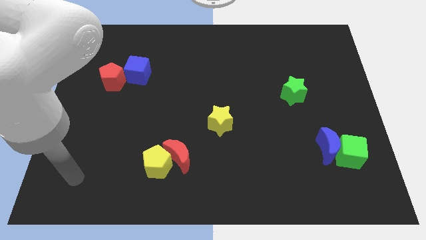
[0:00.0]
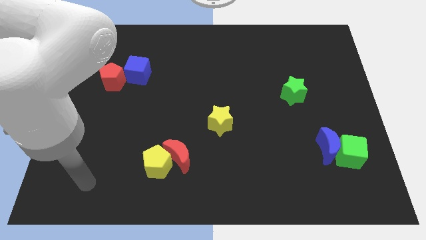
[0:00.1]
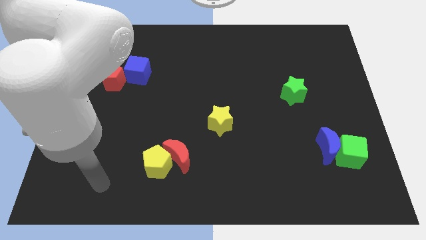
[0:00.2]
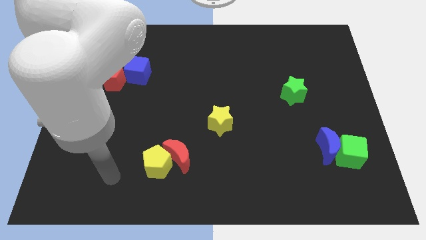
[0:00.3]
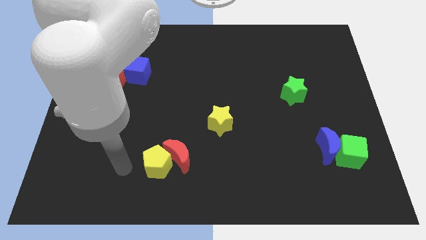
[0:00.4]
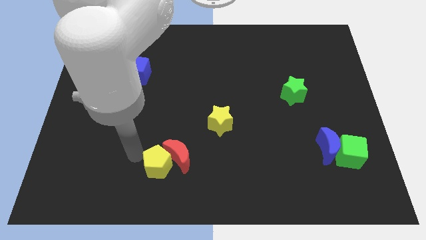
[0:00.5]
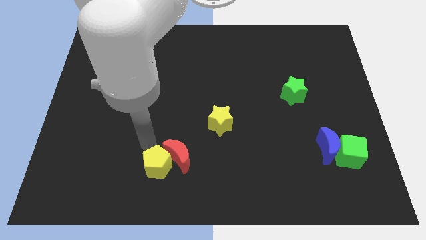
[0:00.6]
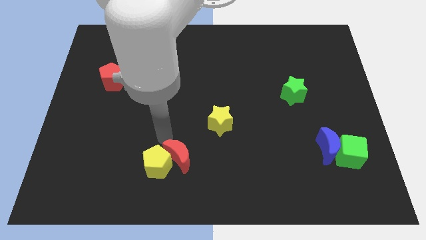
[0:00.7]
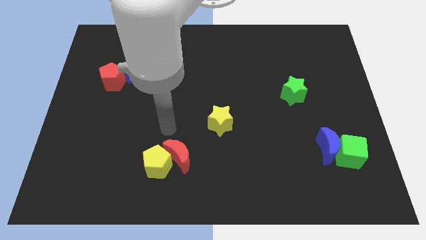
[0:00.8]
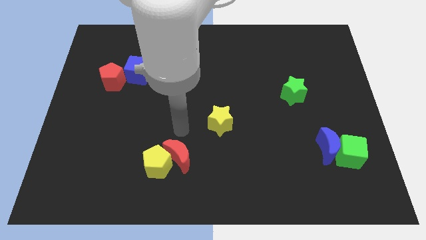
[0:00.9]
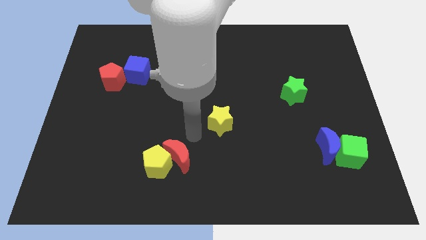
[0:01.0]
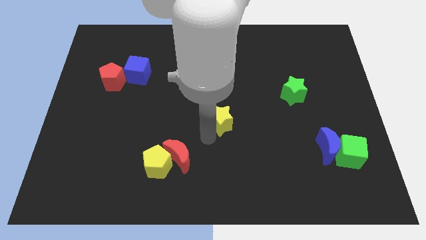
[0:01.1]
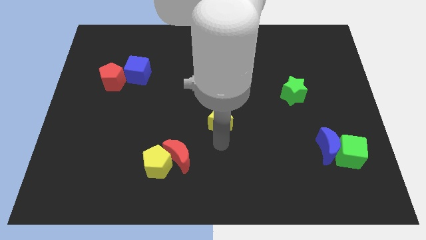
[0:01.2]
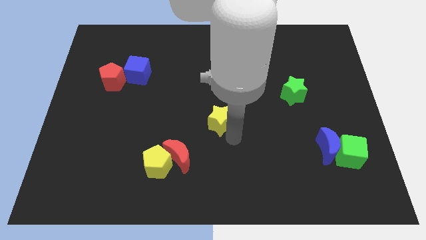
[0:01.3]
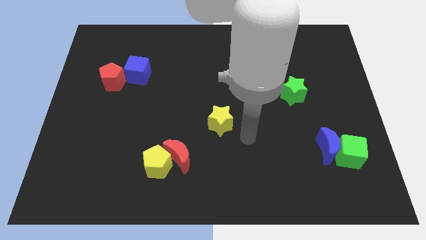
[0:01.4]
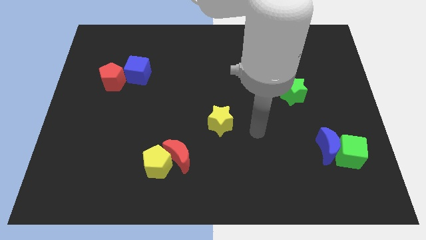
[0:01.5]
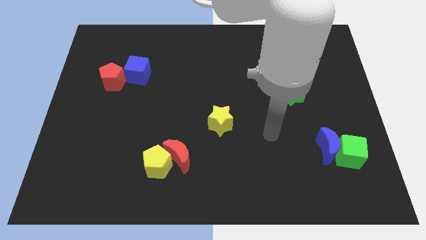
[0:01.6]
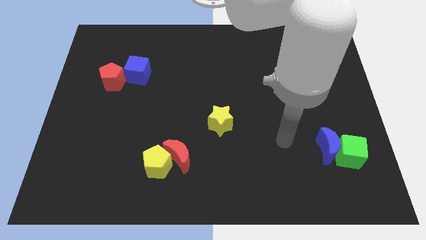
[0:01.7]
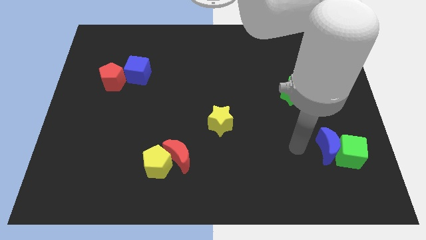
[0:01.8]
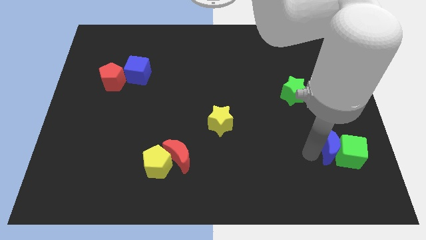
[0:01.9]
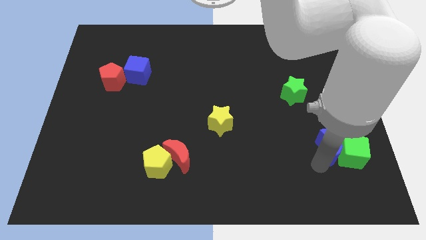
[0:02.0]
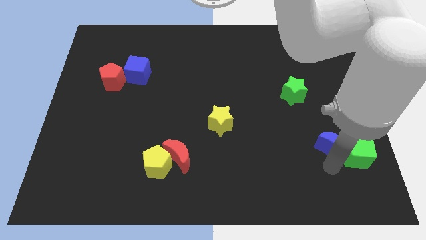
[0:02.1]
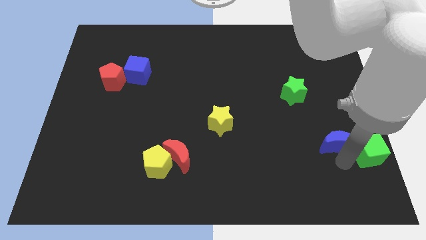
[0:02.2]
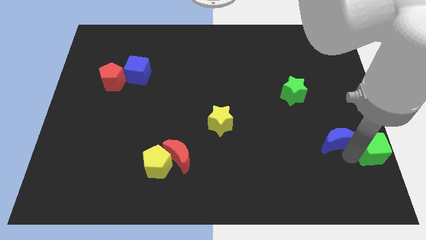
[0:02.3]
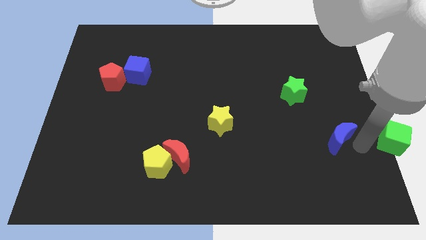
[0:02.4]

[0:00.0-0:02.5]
pull the blue moon apart from the green cube

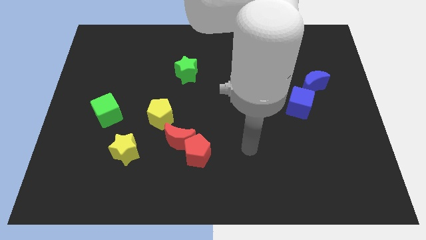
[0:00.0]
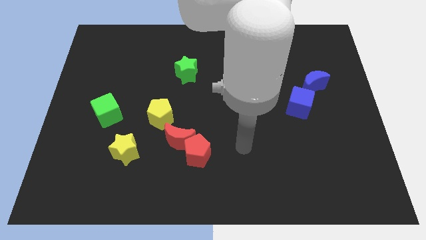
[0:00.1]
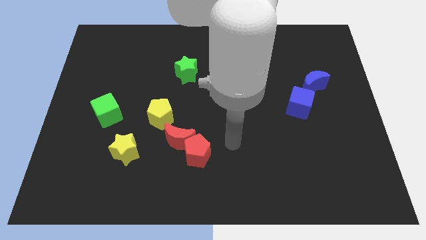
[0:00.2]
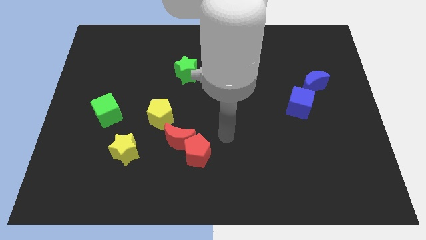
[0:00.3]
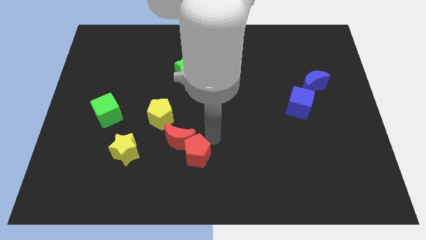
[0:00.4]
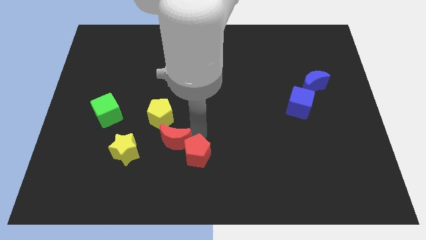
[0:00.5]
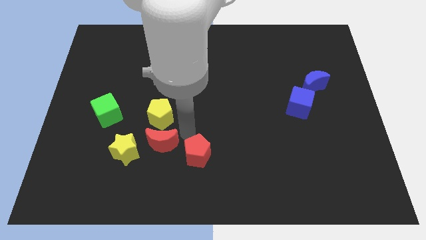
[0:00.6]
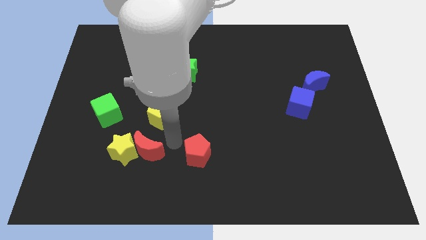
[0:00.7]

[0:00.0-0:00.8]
separate the red pentagon from the red moon

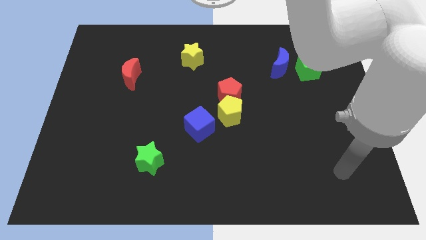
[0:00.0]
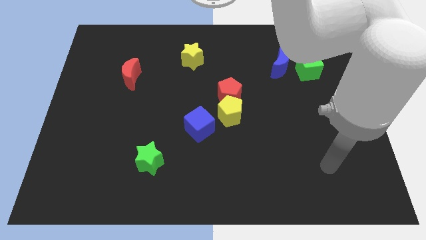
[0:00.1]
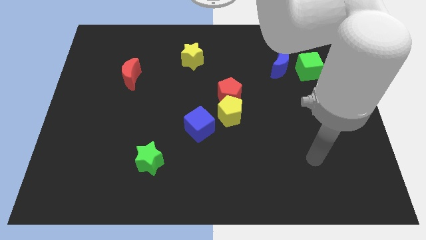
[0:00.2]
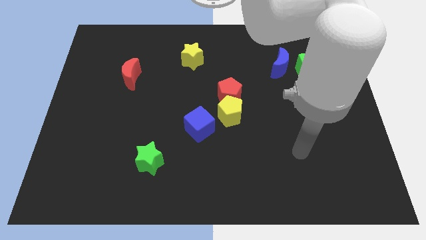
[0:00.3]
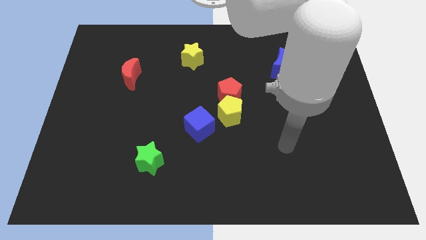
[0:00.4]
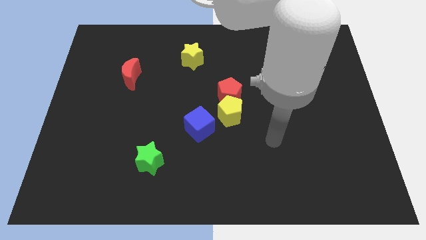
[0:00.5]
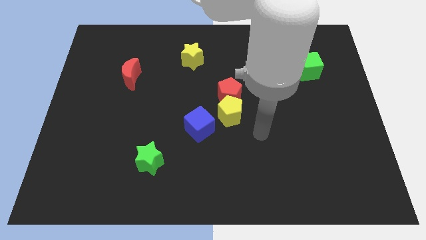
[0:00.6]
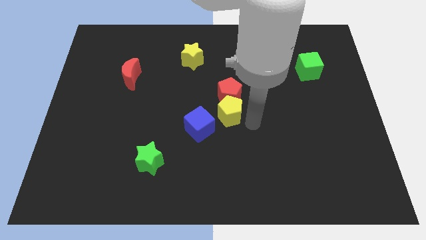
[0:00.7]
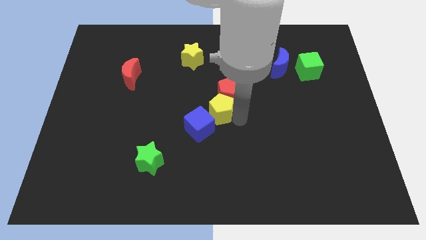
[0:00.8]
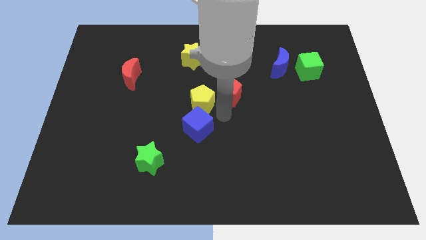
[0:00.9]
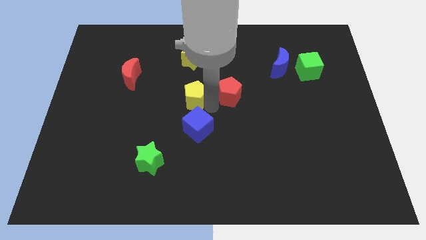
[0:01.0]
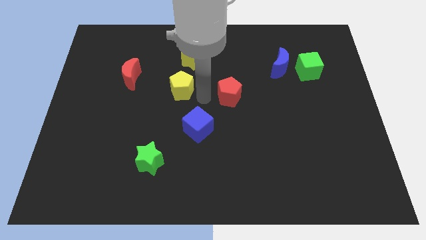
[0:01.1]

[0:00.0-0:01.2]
separate the red pentagon from the yellow pentagon

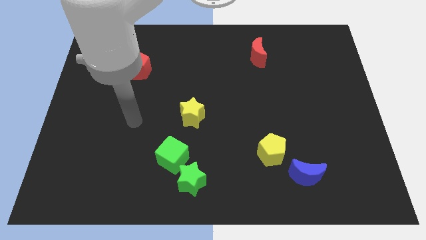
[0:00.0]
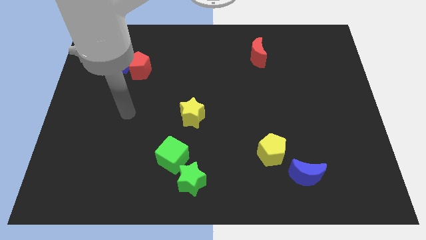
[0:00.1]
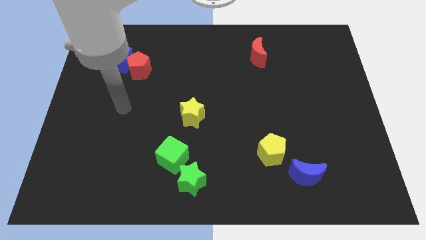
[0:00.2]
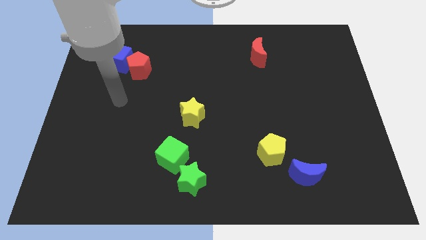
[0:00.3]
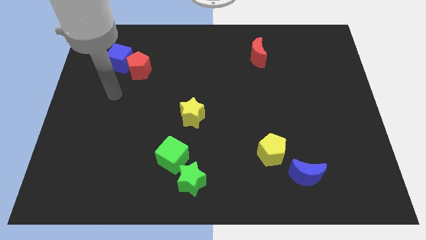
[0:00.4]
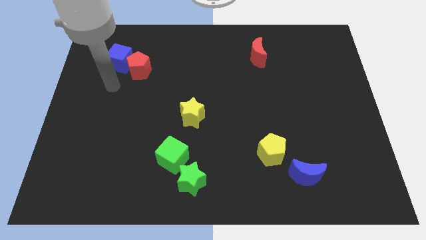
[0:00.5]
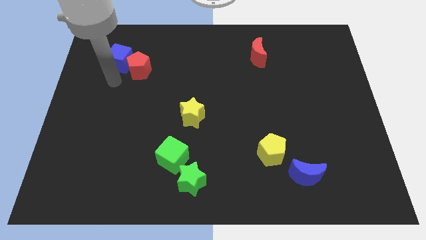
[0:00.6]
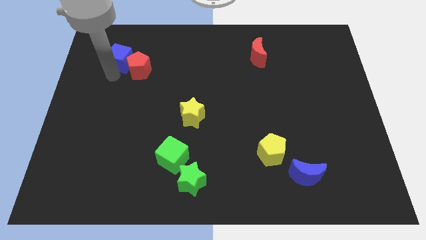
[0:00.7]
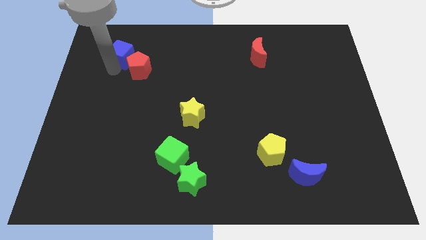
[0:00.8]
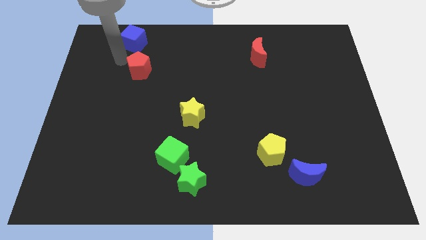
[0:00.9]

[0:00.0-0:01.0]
separate the red pentagon from the blue cube

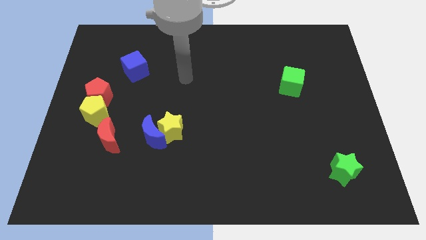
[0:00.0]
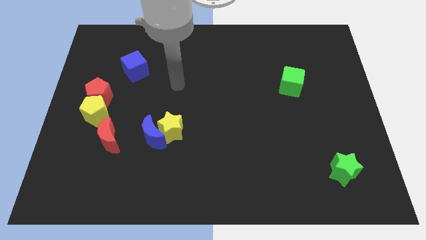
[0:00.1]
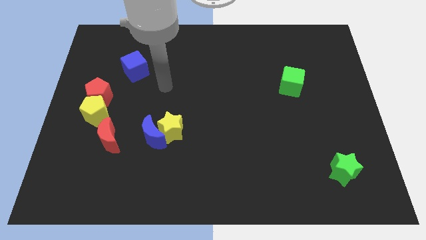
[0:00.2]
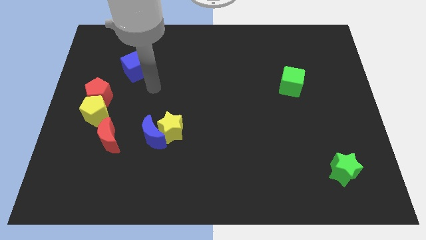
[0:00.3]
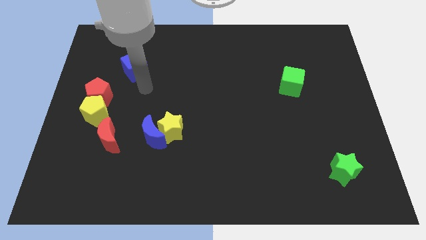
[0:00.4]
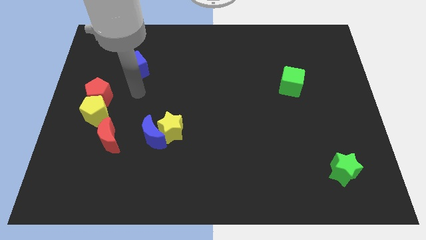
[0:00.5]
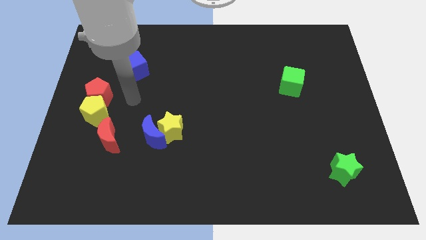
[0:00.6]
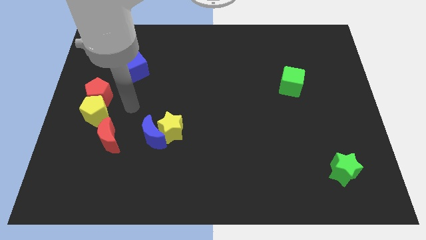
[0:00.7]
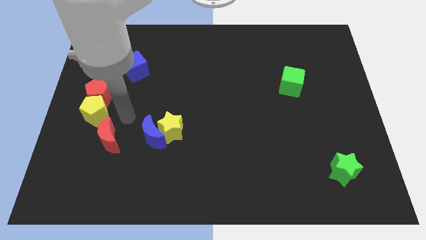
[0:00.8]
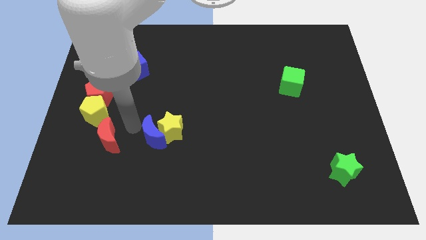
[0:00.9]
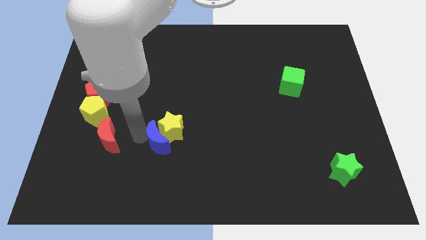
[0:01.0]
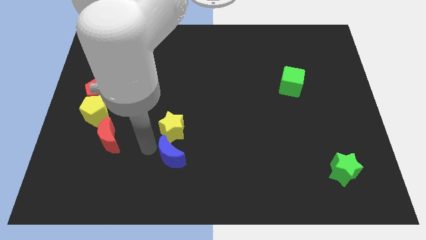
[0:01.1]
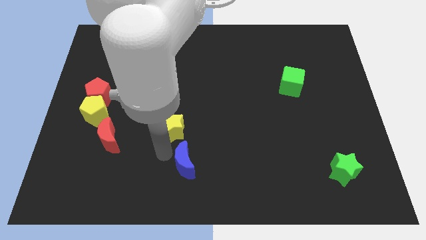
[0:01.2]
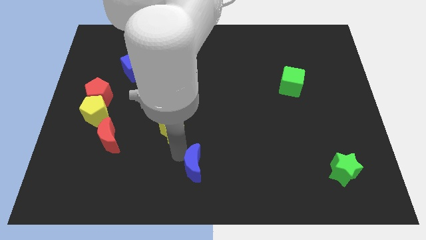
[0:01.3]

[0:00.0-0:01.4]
pull the yellow star apart from the blue moon

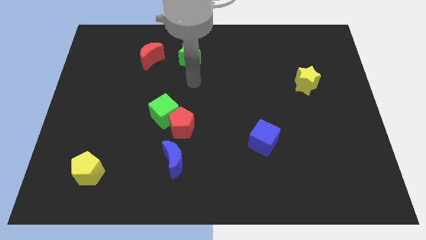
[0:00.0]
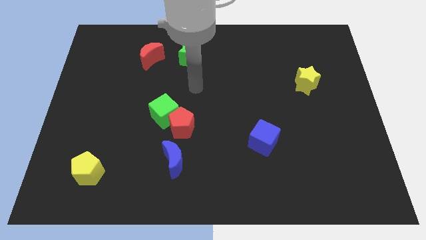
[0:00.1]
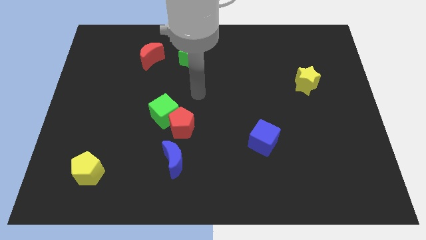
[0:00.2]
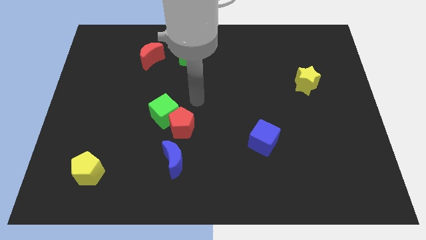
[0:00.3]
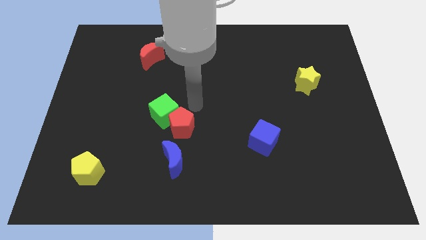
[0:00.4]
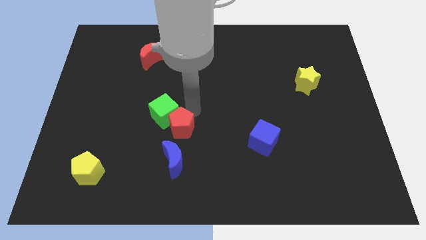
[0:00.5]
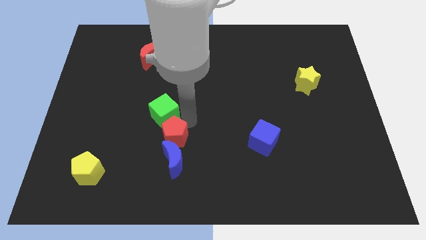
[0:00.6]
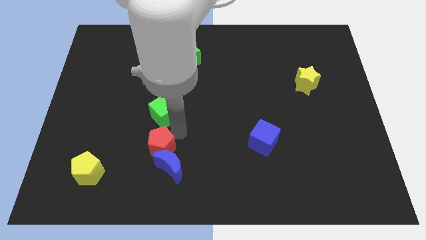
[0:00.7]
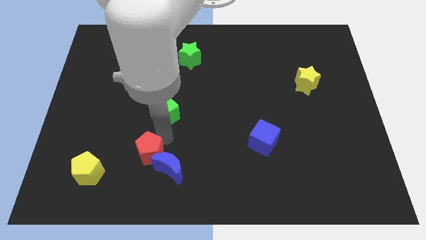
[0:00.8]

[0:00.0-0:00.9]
pull the green cube apart from the red pentagon

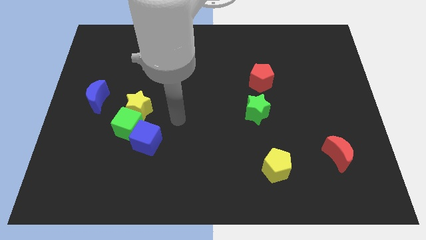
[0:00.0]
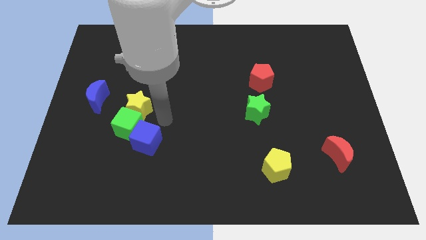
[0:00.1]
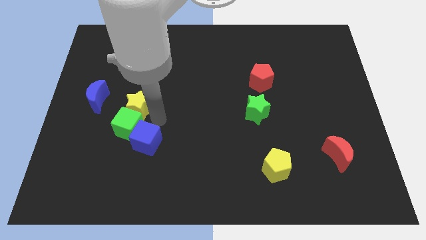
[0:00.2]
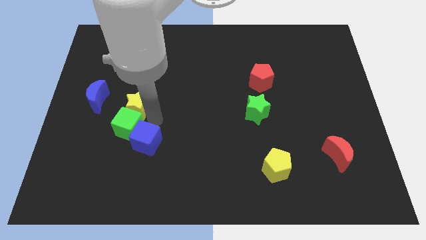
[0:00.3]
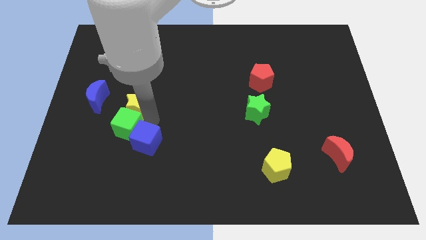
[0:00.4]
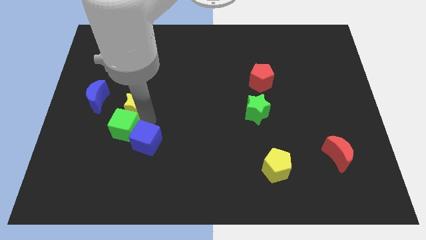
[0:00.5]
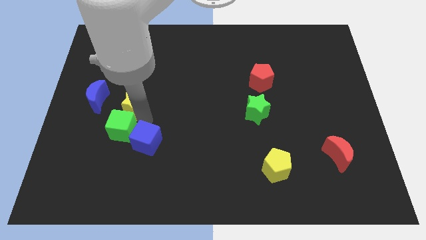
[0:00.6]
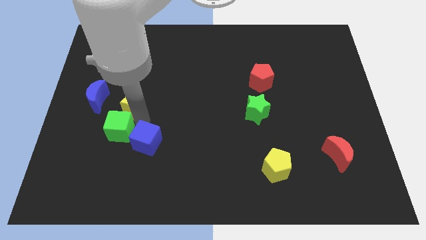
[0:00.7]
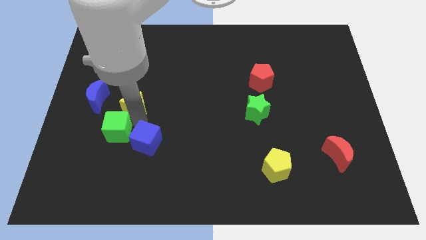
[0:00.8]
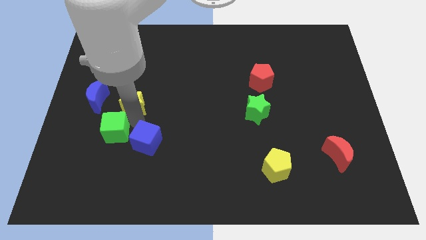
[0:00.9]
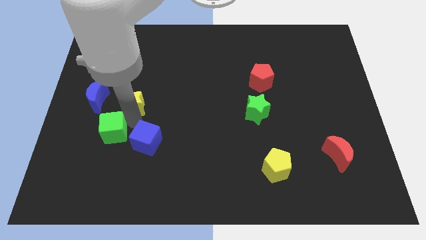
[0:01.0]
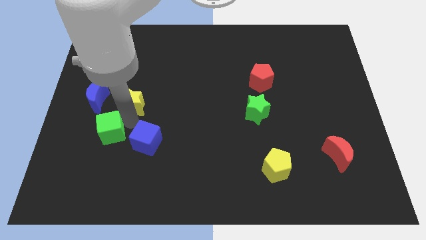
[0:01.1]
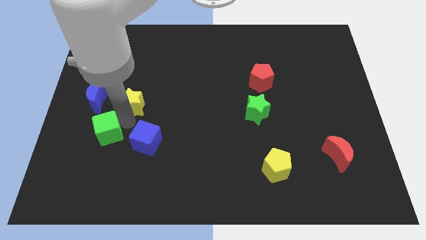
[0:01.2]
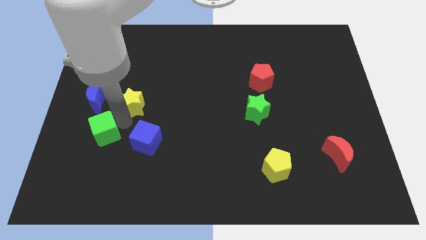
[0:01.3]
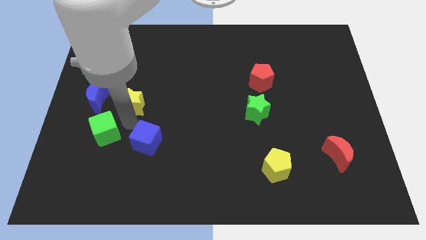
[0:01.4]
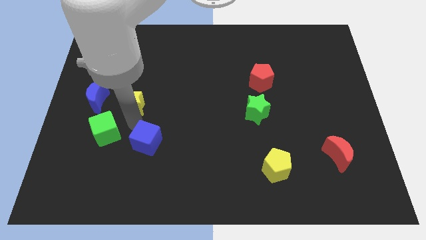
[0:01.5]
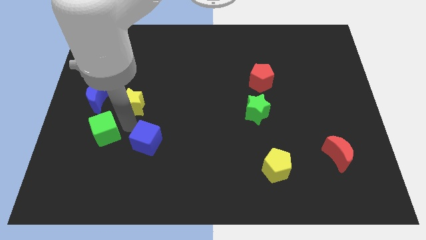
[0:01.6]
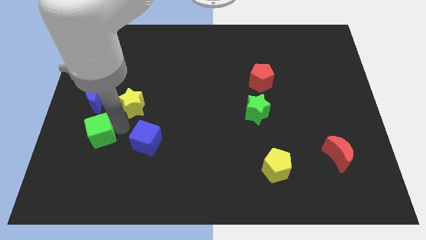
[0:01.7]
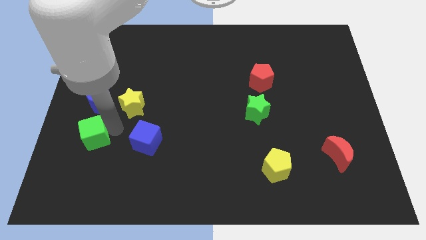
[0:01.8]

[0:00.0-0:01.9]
move the green cube away from the blue cube and yellow star
